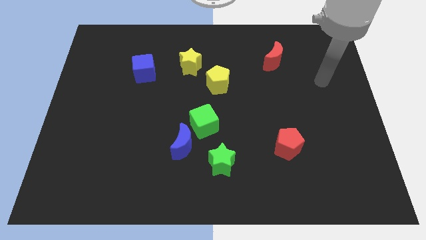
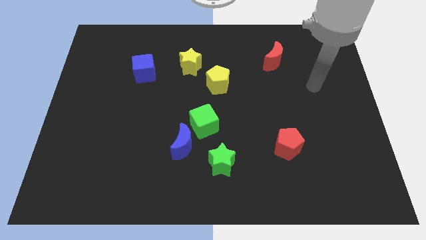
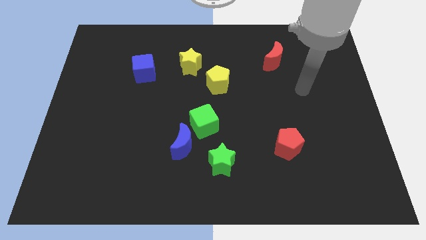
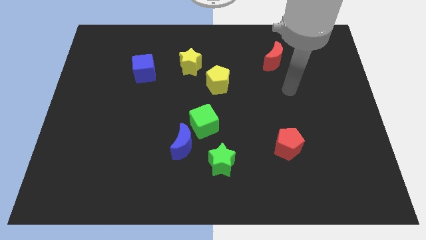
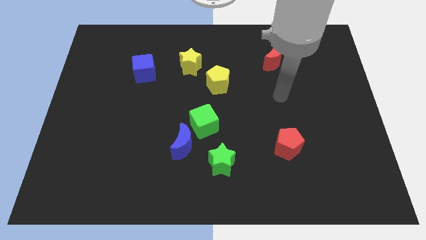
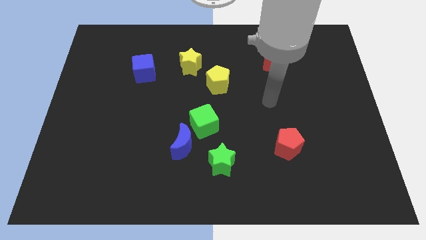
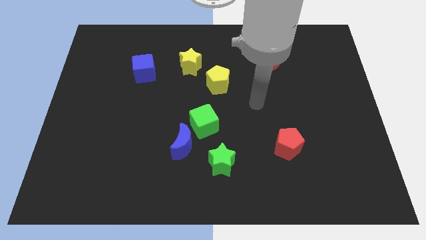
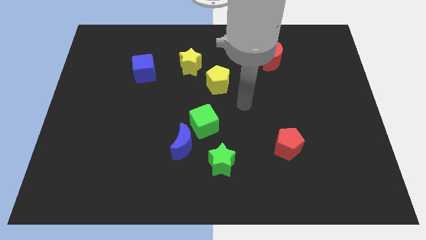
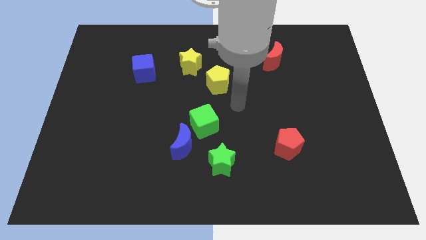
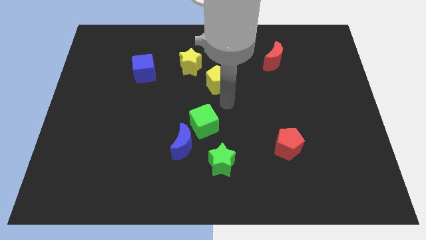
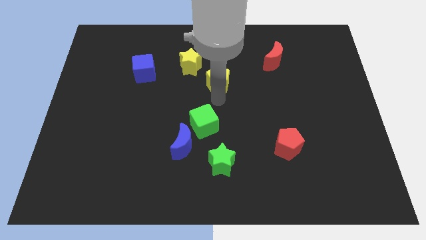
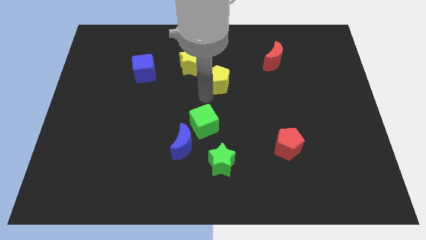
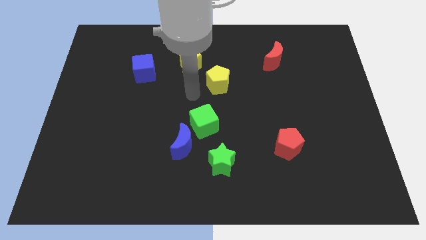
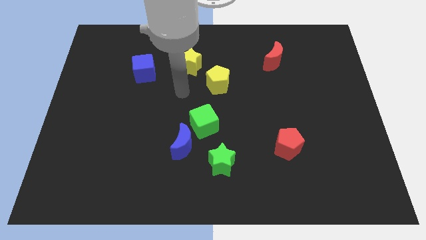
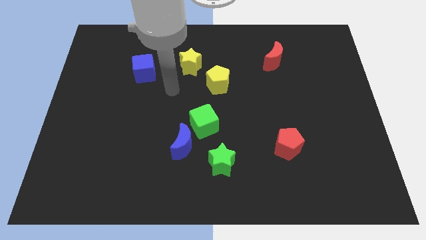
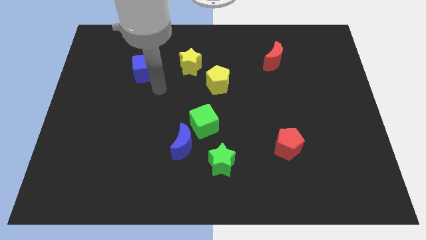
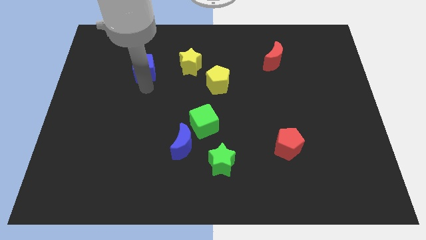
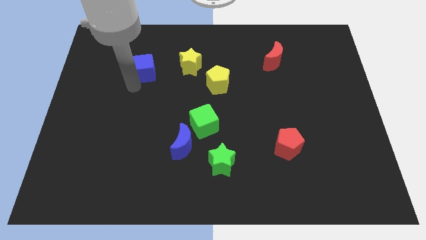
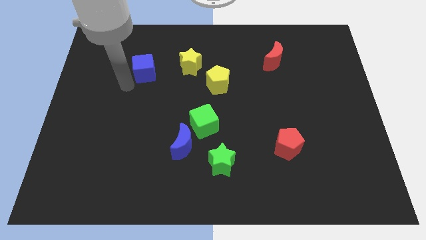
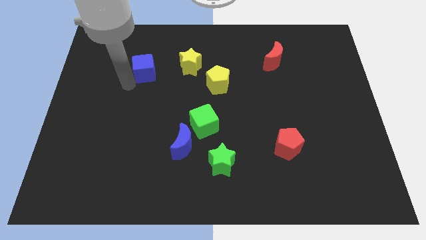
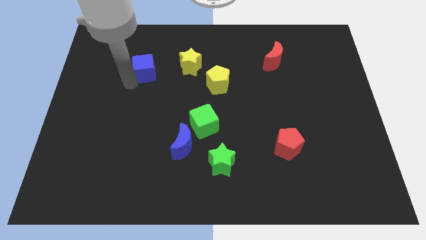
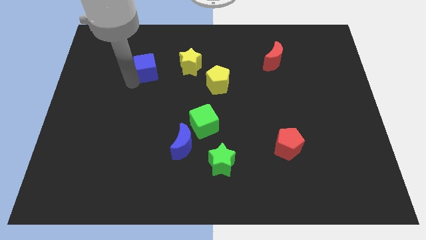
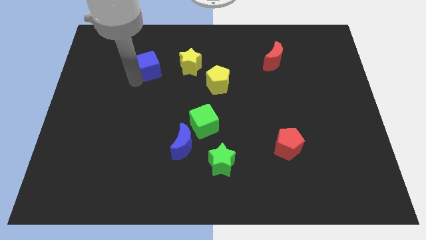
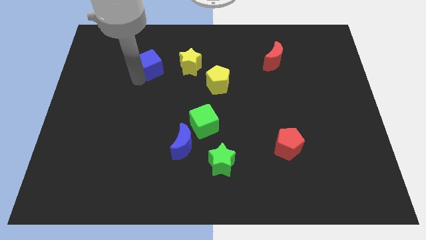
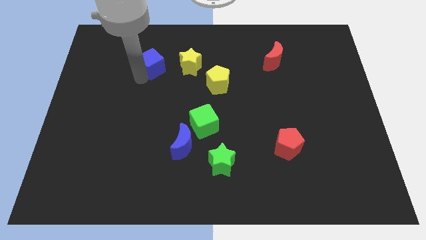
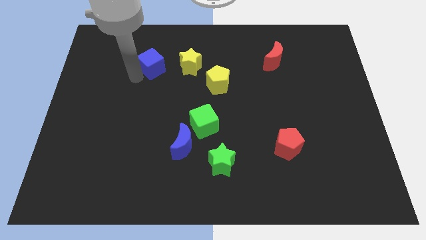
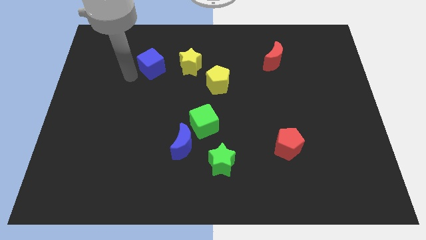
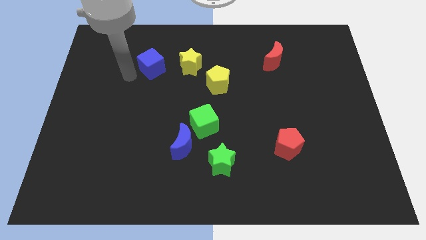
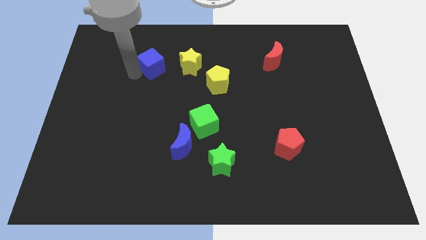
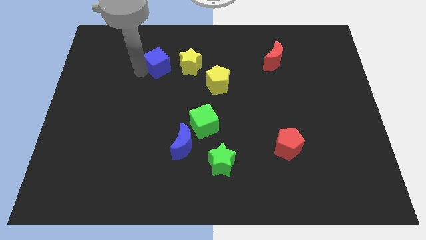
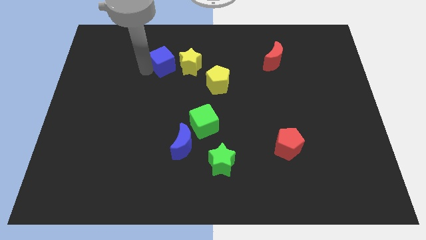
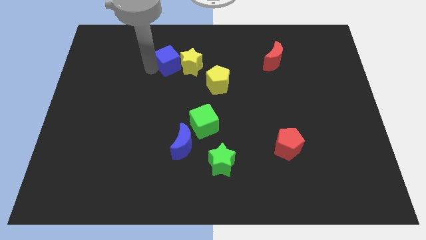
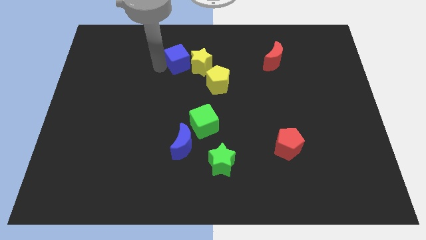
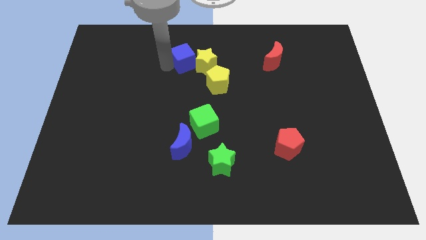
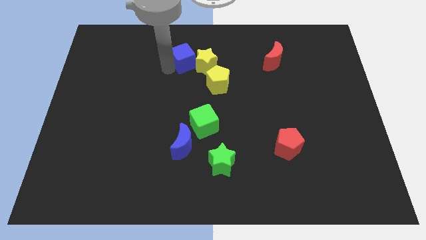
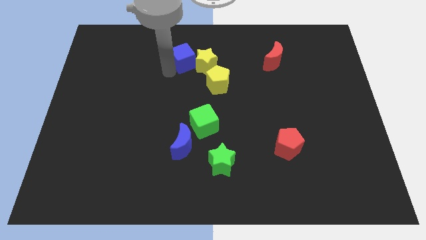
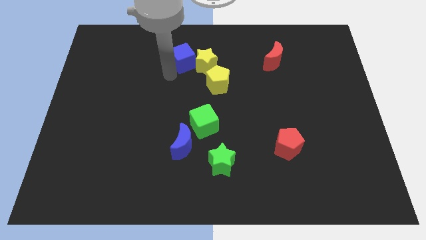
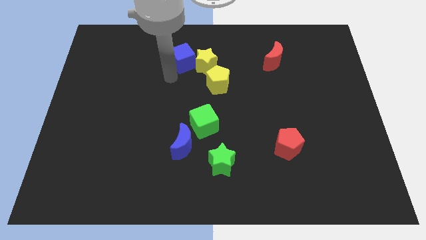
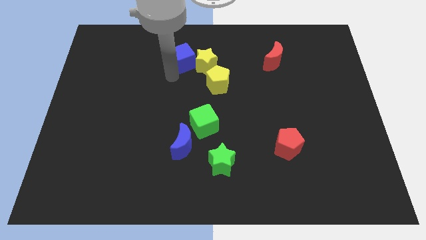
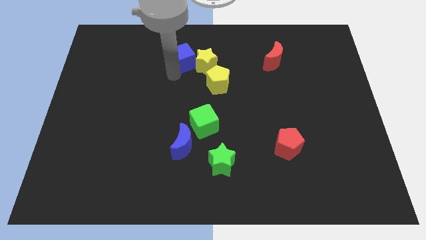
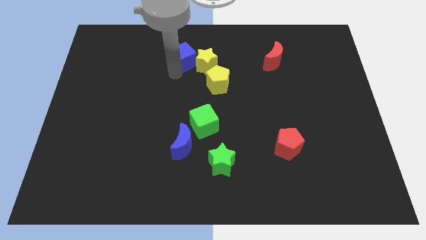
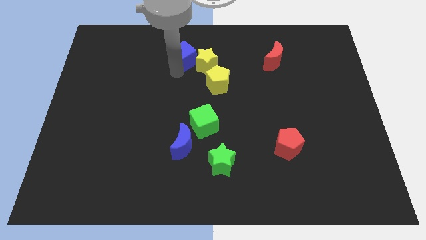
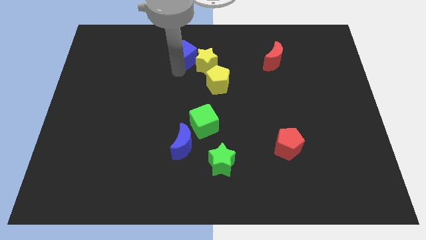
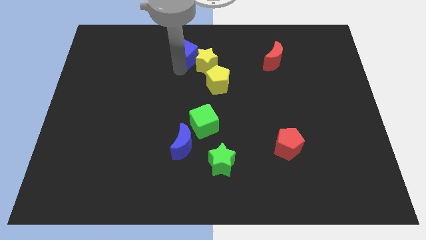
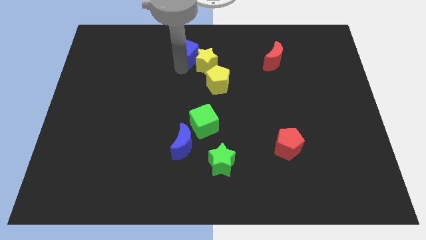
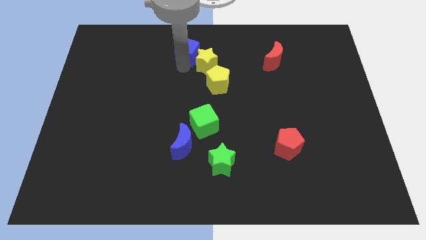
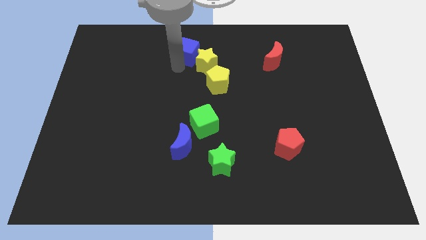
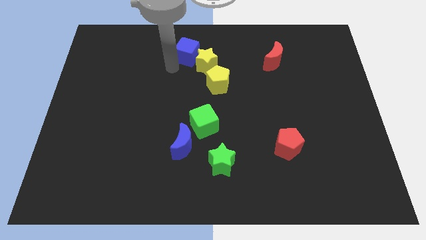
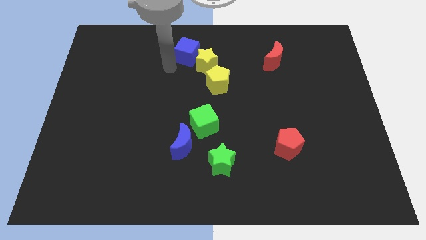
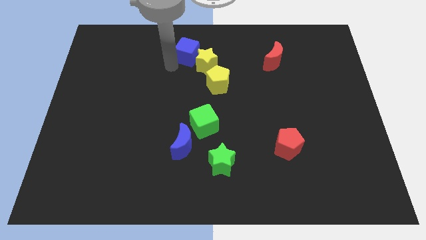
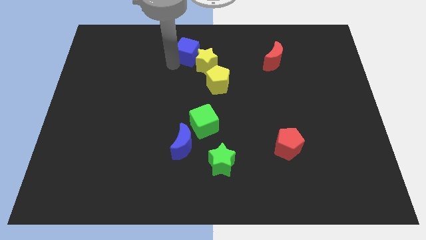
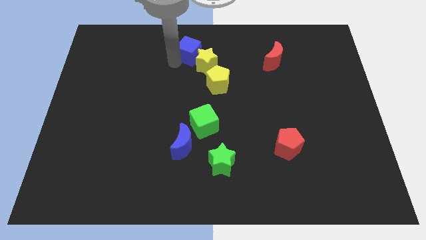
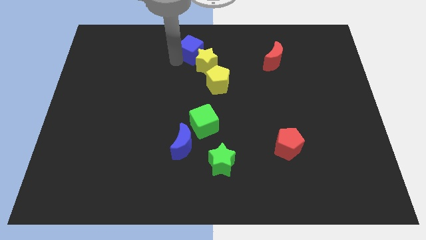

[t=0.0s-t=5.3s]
push the blue cube to the top side

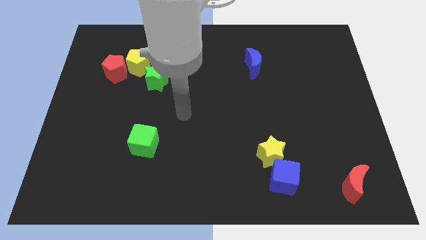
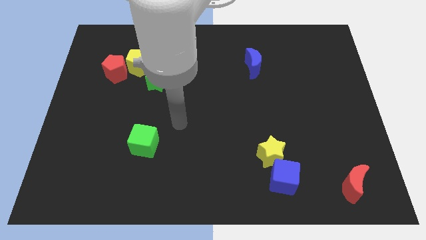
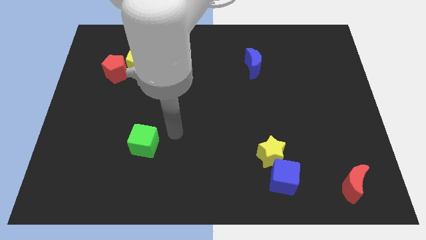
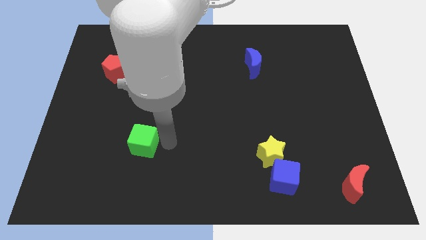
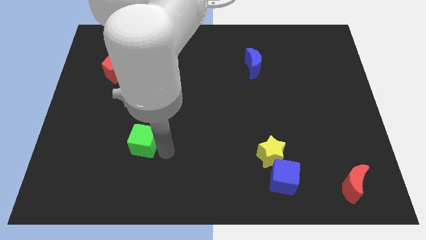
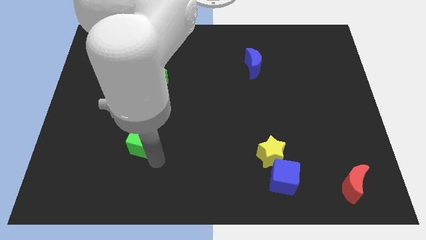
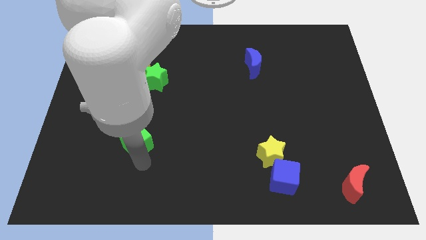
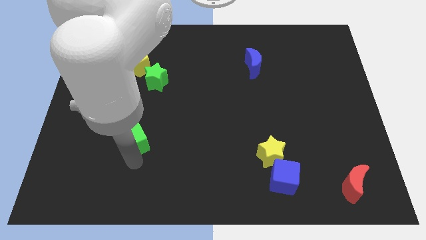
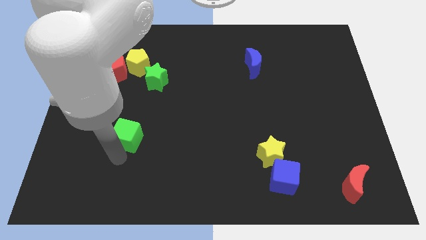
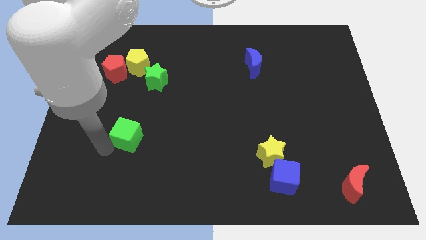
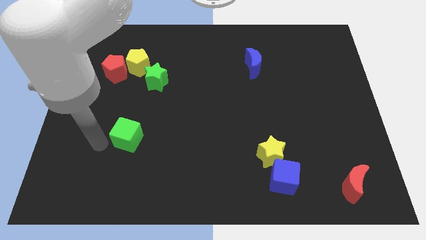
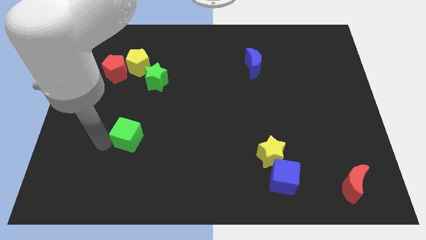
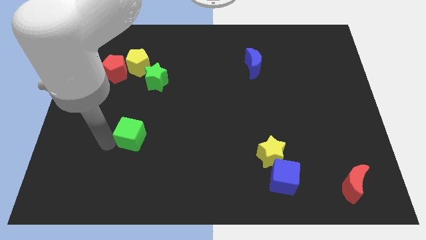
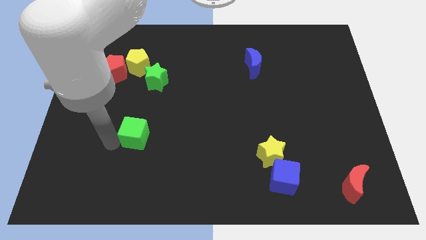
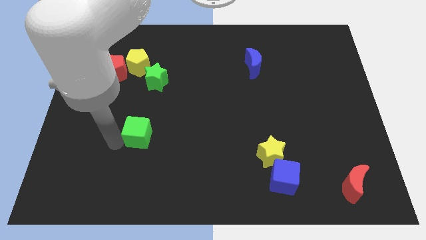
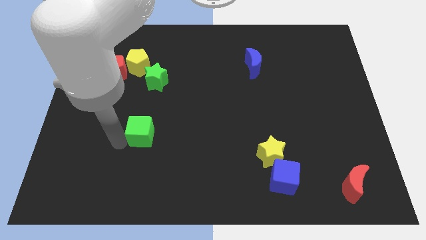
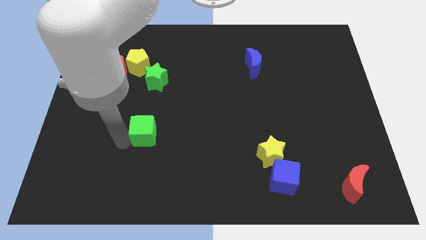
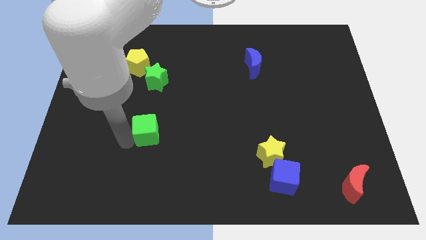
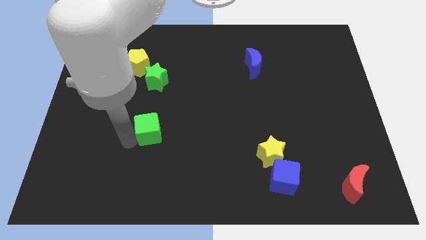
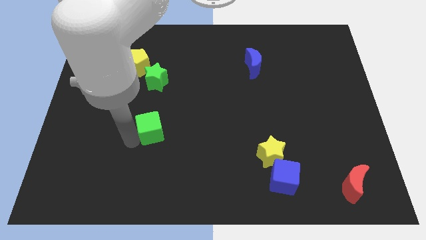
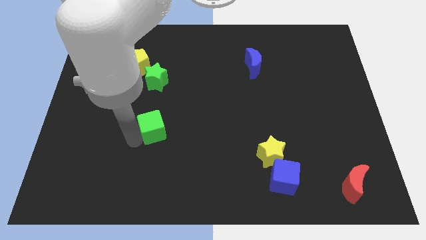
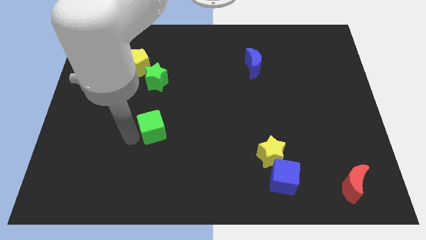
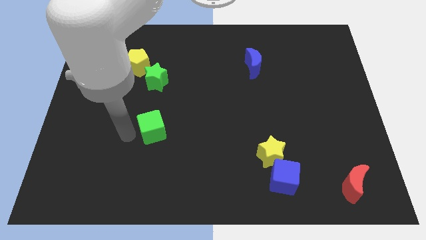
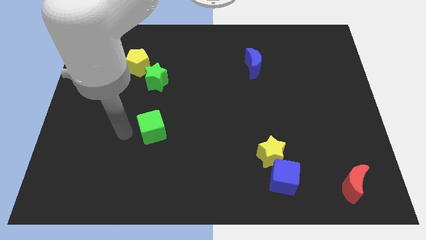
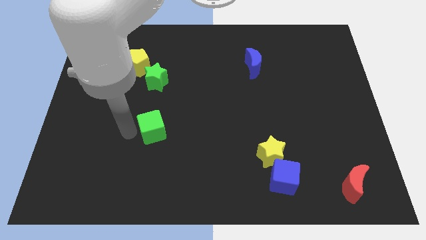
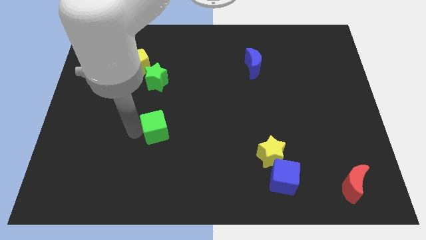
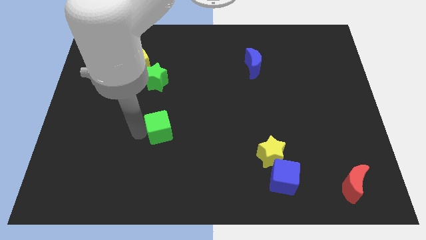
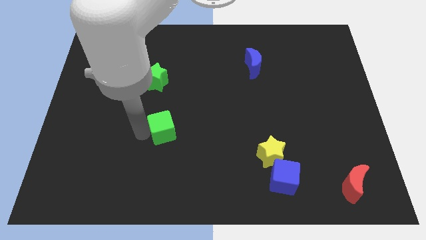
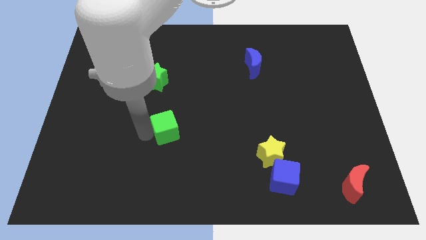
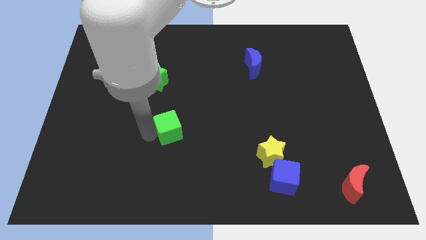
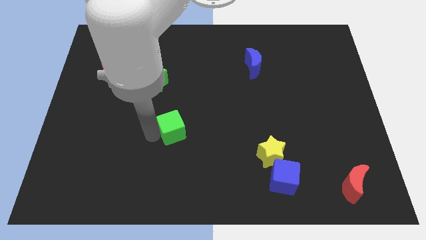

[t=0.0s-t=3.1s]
slide the green cube to the middle of the board
